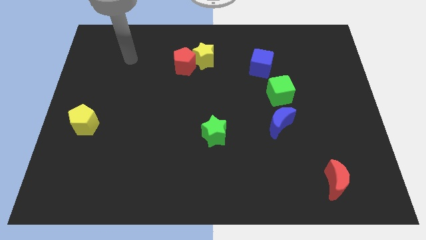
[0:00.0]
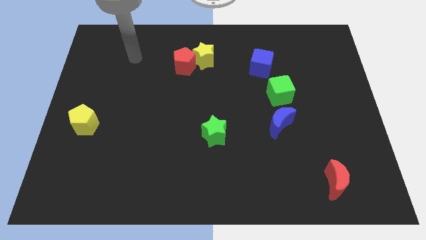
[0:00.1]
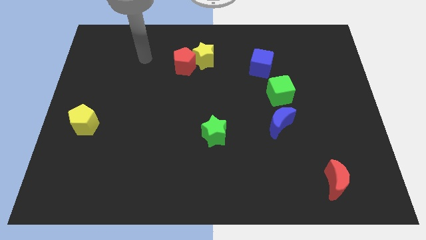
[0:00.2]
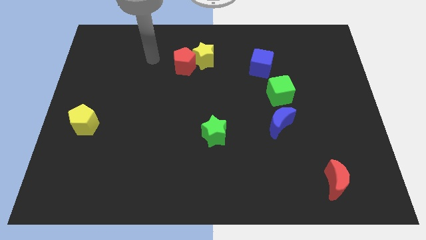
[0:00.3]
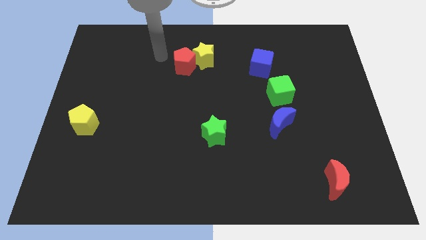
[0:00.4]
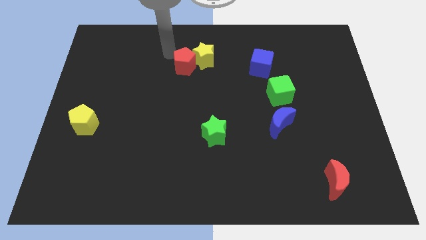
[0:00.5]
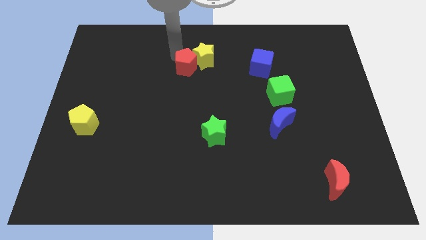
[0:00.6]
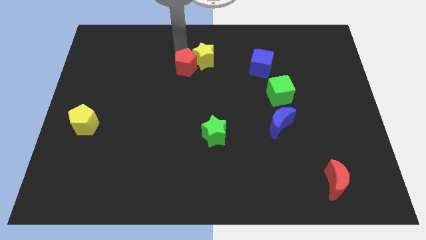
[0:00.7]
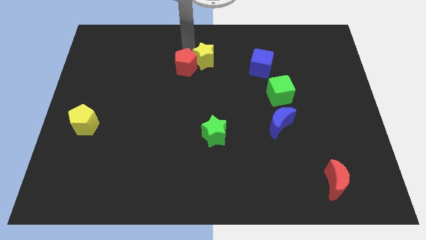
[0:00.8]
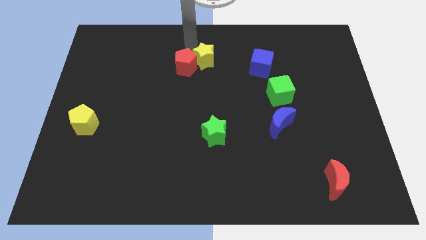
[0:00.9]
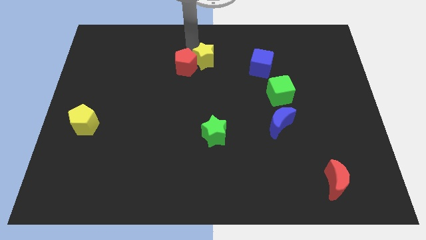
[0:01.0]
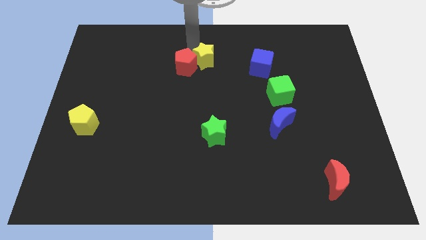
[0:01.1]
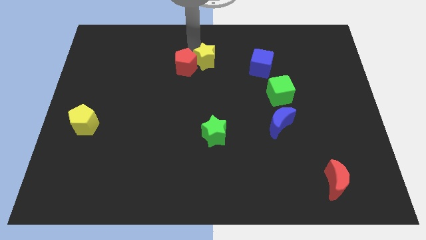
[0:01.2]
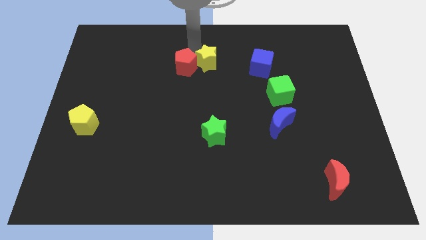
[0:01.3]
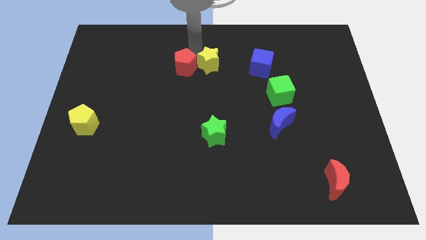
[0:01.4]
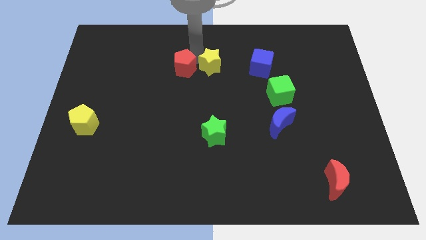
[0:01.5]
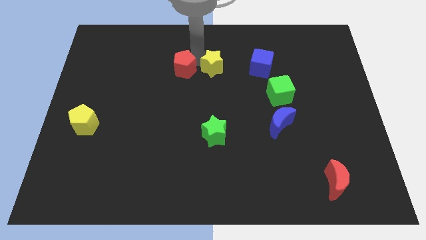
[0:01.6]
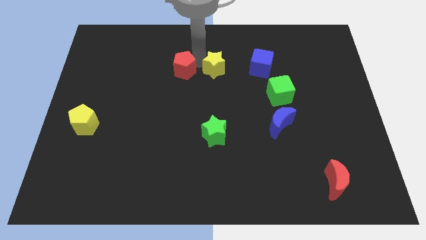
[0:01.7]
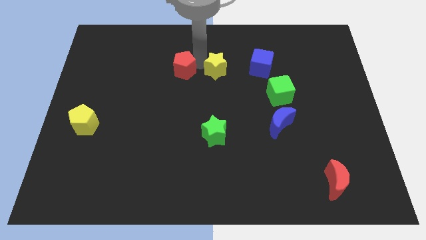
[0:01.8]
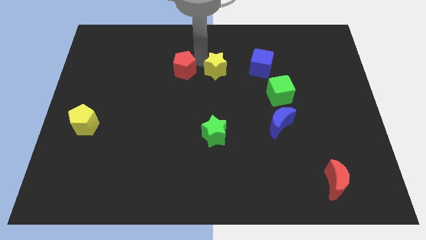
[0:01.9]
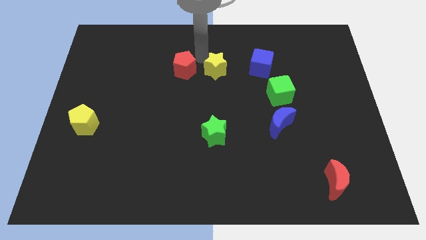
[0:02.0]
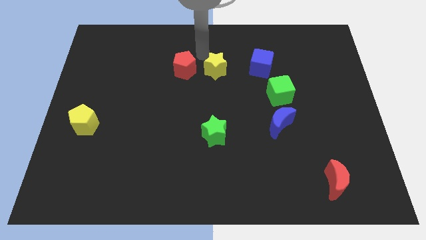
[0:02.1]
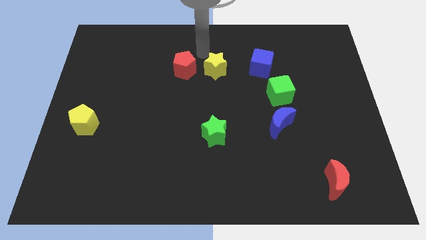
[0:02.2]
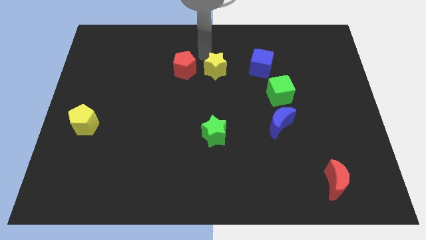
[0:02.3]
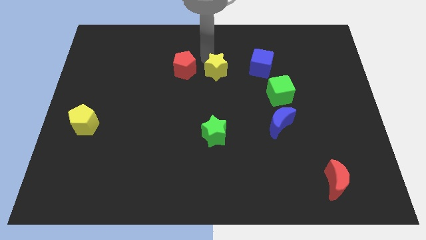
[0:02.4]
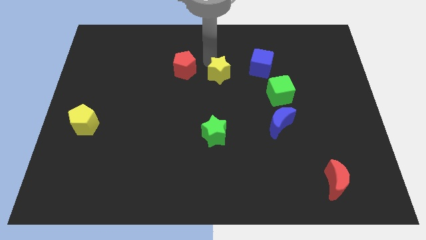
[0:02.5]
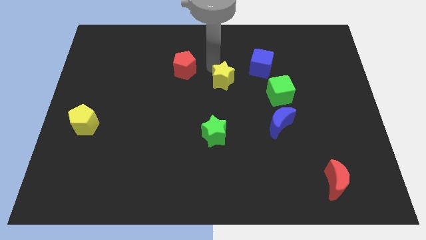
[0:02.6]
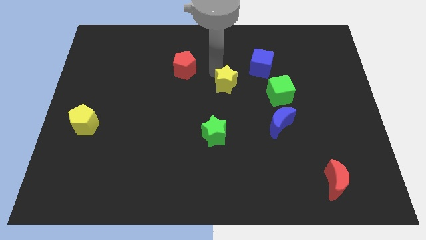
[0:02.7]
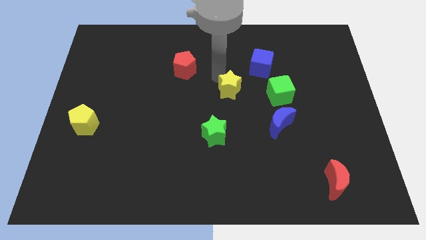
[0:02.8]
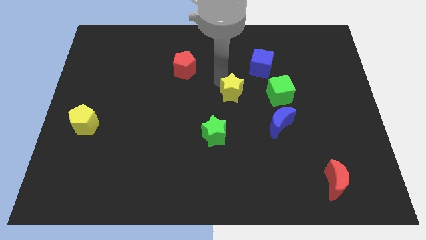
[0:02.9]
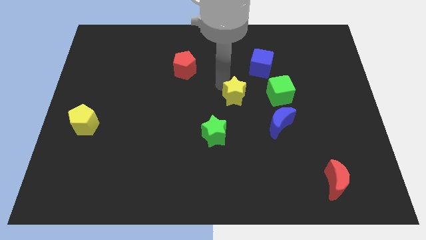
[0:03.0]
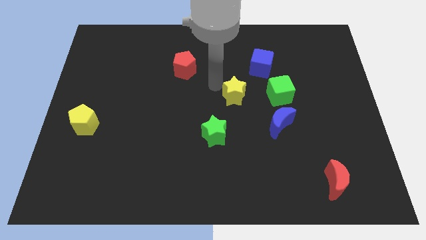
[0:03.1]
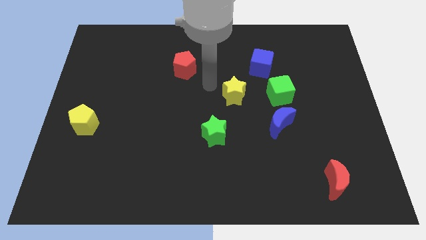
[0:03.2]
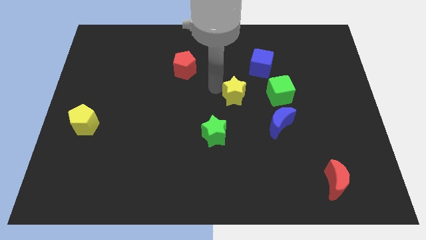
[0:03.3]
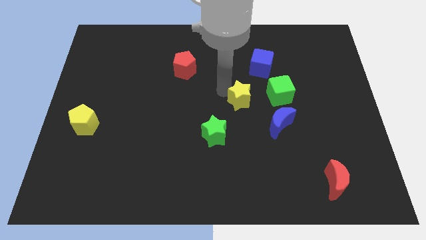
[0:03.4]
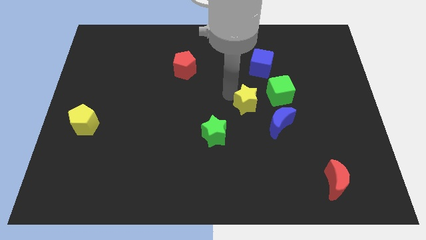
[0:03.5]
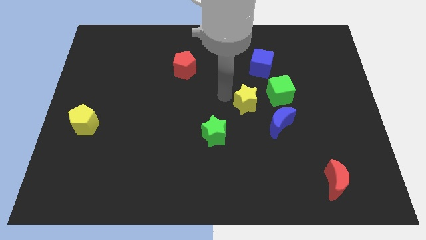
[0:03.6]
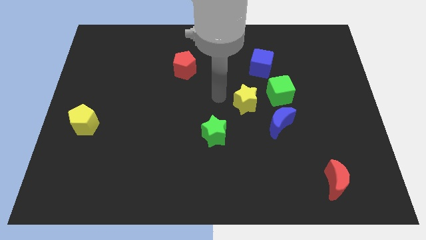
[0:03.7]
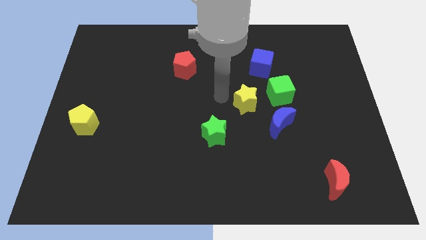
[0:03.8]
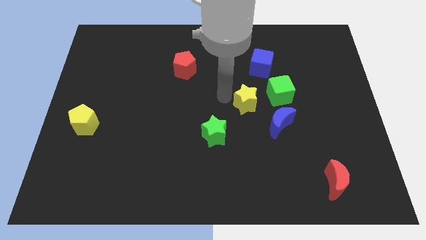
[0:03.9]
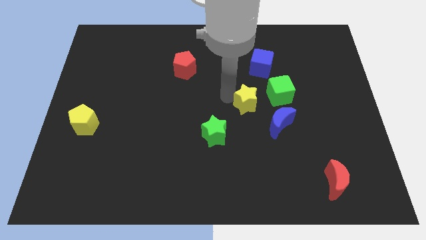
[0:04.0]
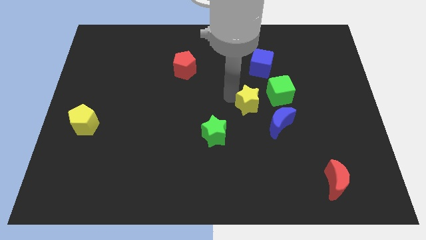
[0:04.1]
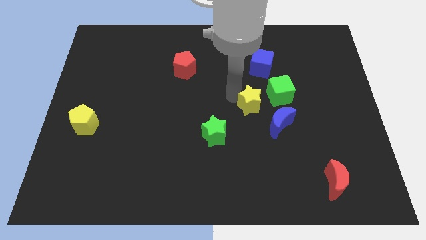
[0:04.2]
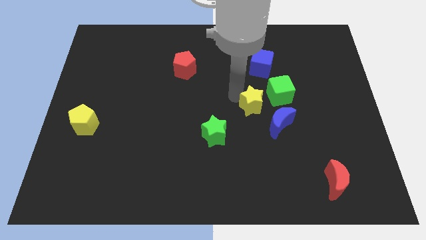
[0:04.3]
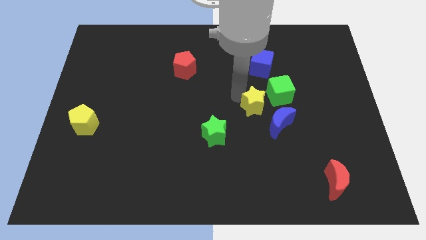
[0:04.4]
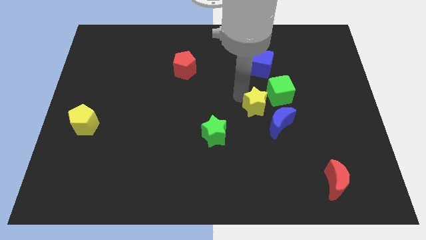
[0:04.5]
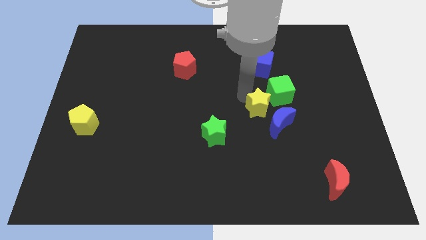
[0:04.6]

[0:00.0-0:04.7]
slide the yellow star diagonally downwards and to the right

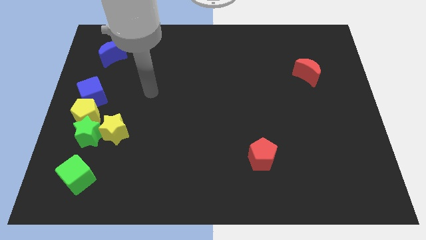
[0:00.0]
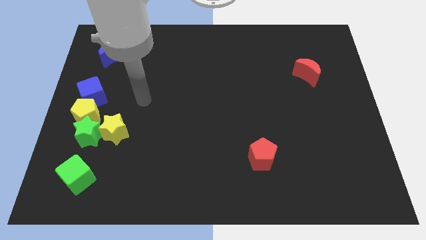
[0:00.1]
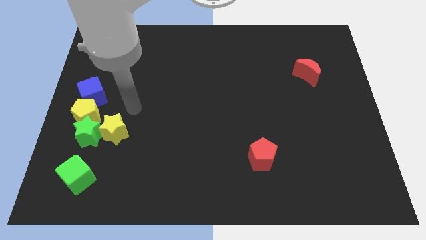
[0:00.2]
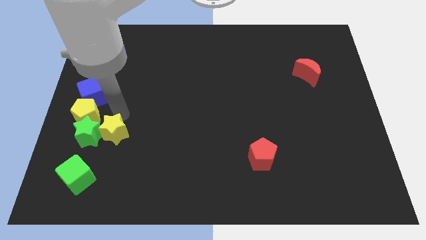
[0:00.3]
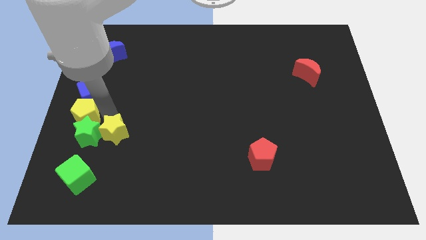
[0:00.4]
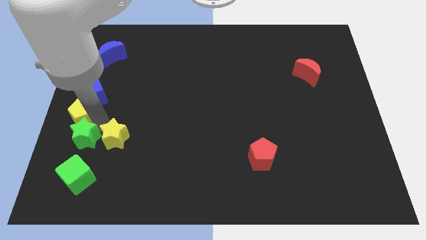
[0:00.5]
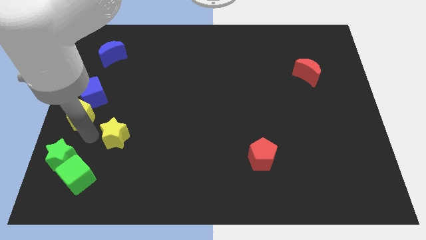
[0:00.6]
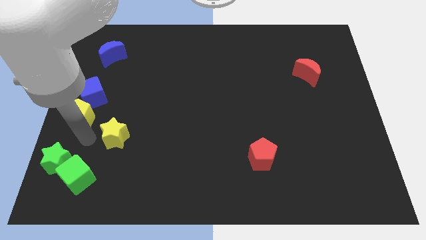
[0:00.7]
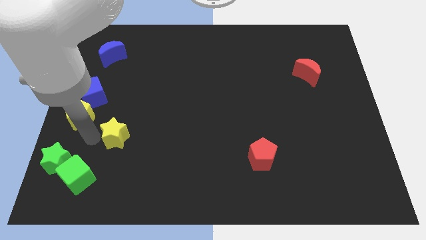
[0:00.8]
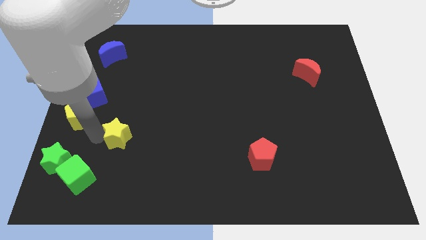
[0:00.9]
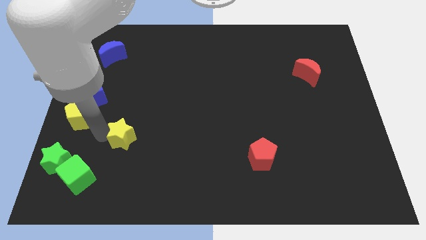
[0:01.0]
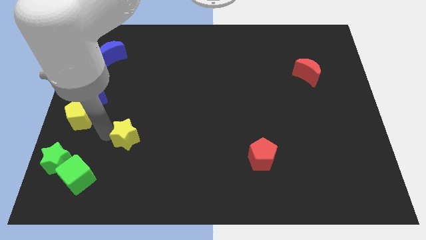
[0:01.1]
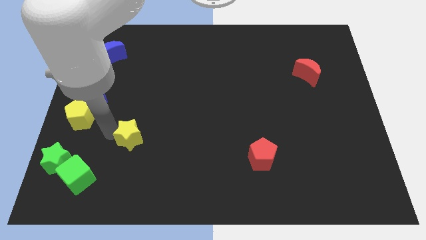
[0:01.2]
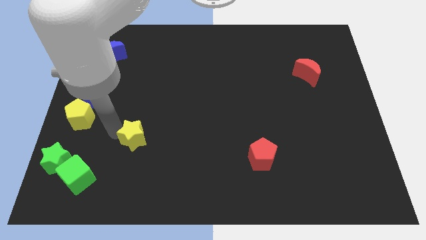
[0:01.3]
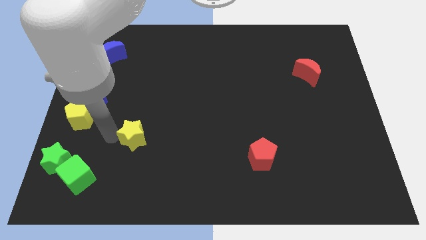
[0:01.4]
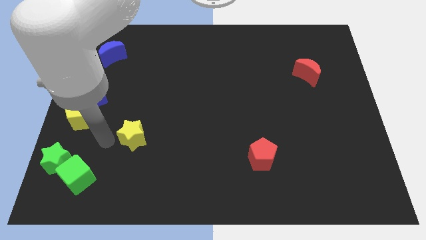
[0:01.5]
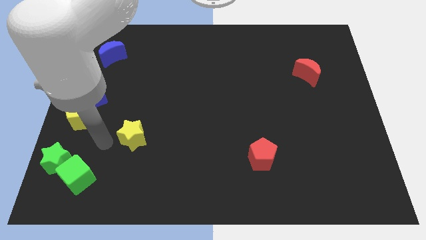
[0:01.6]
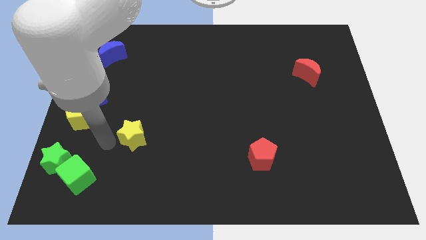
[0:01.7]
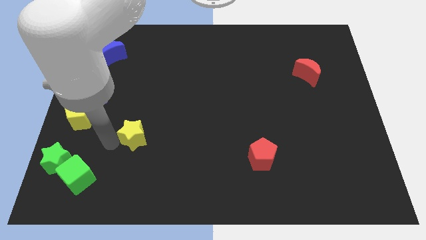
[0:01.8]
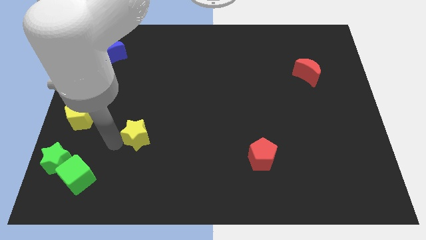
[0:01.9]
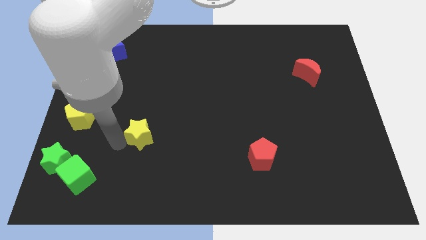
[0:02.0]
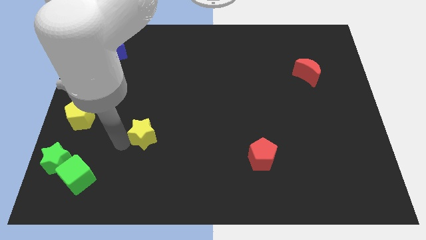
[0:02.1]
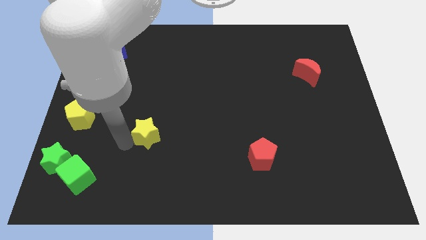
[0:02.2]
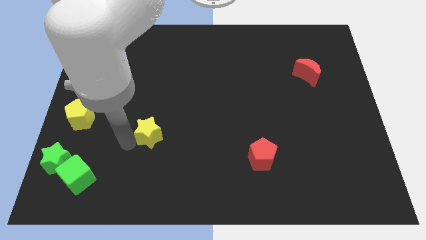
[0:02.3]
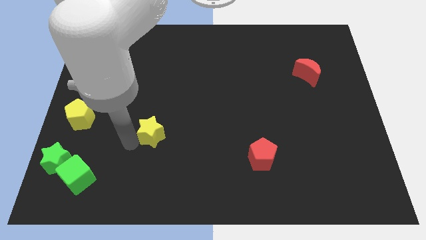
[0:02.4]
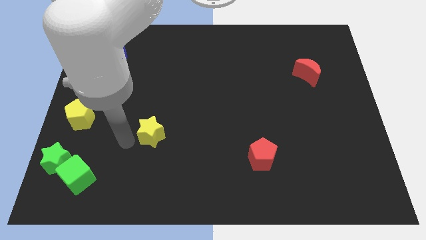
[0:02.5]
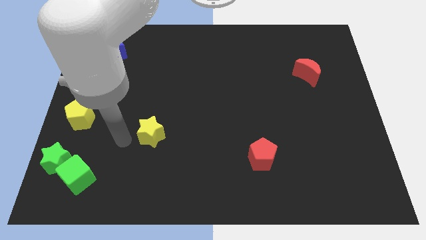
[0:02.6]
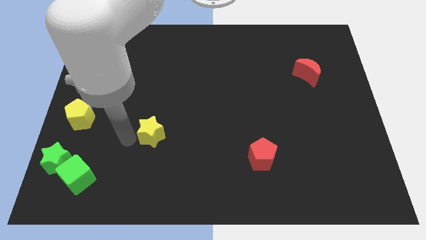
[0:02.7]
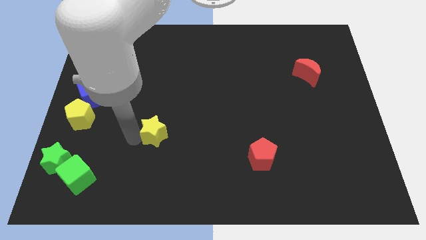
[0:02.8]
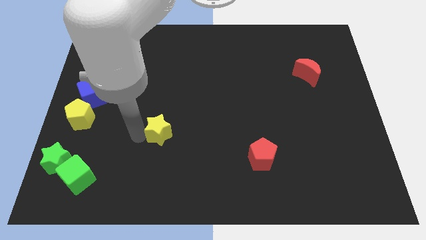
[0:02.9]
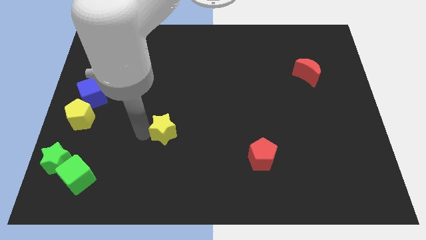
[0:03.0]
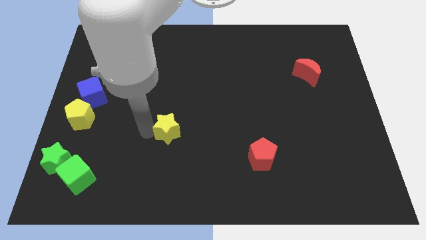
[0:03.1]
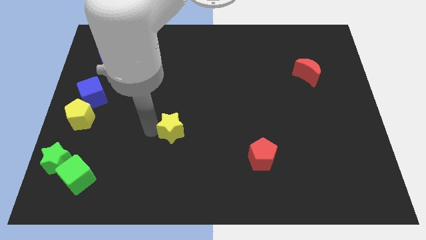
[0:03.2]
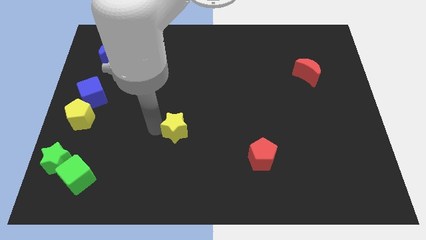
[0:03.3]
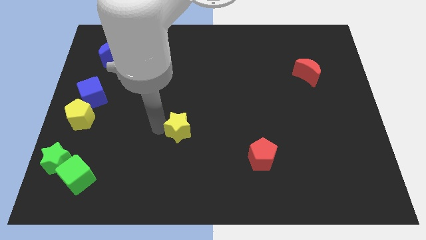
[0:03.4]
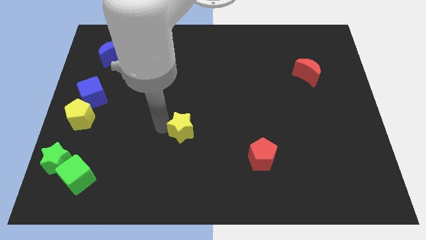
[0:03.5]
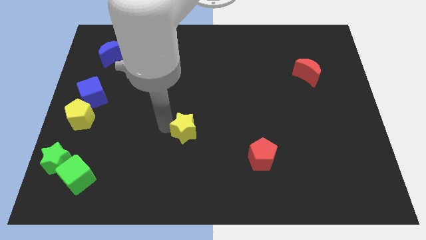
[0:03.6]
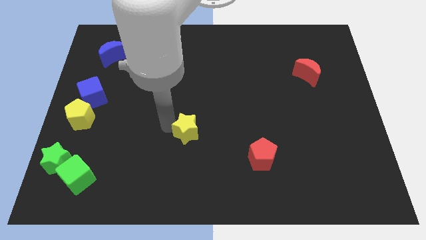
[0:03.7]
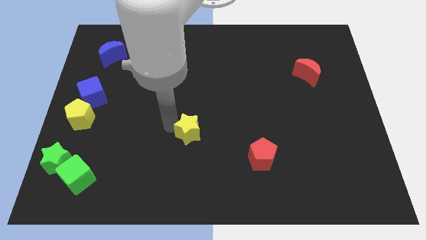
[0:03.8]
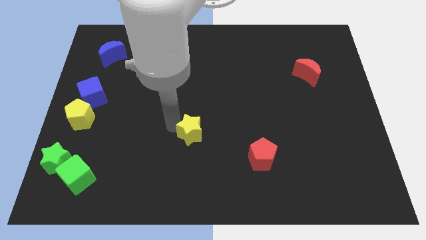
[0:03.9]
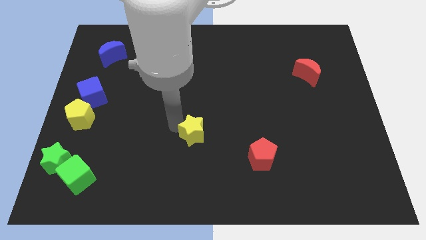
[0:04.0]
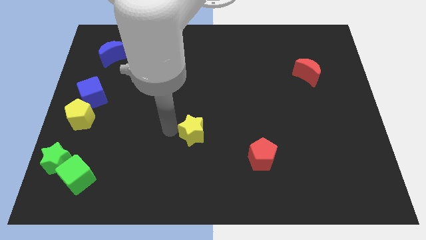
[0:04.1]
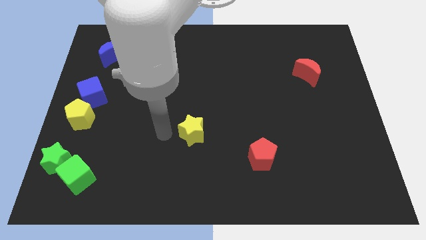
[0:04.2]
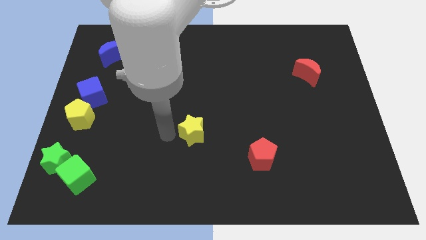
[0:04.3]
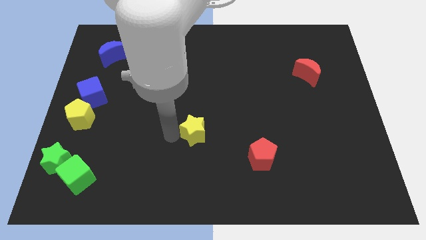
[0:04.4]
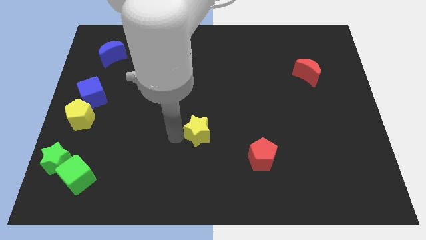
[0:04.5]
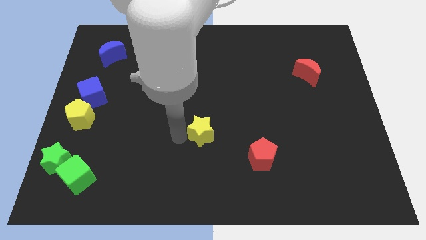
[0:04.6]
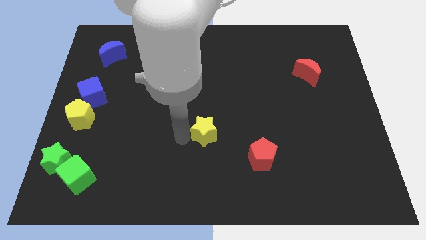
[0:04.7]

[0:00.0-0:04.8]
push the yellow star to the right
